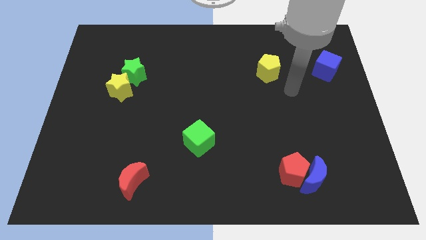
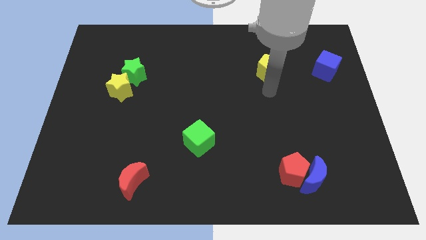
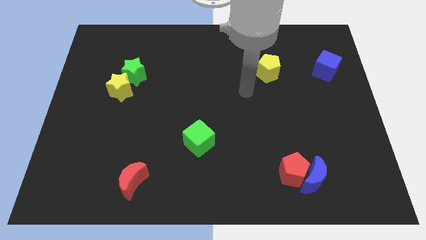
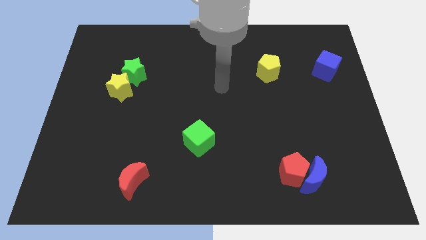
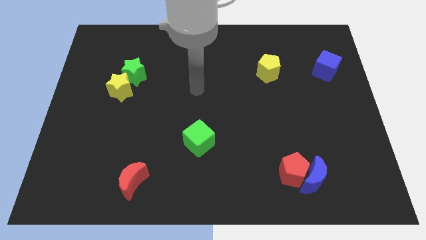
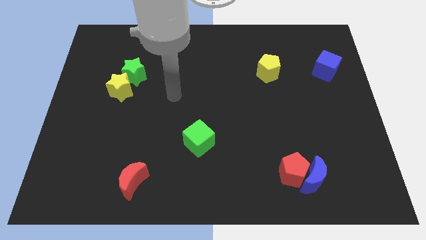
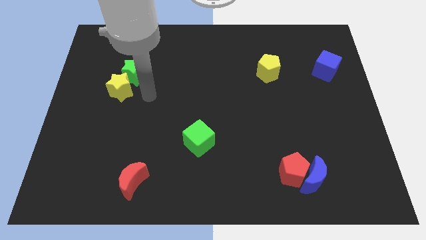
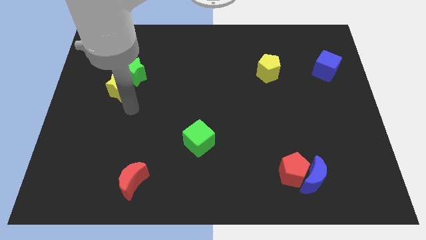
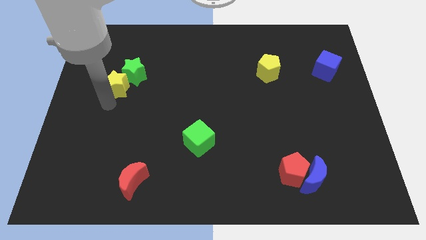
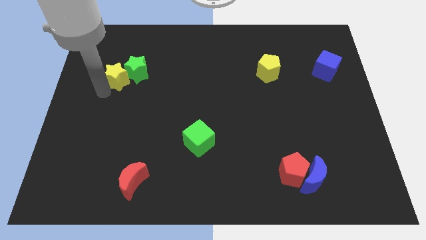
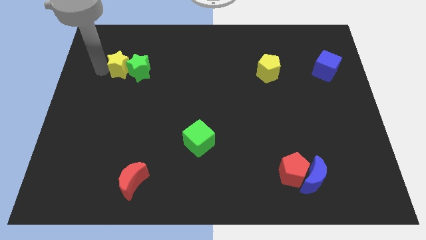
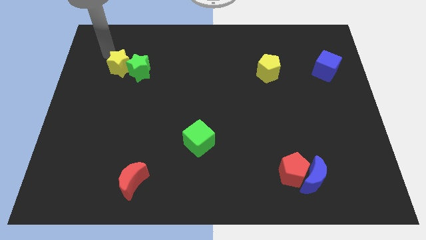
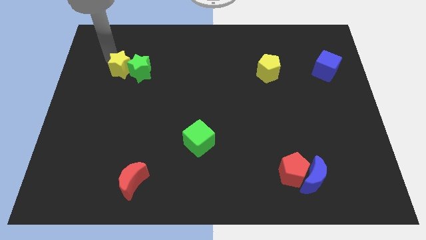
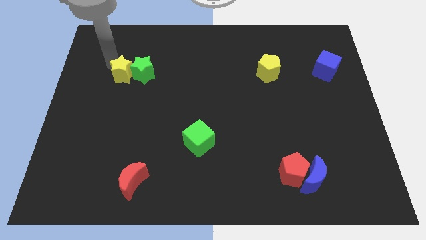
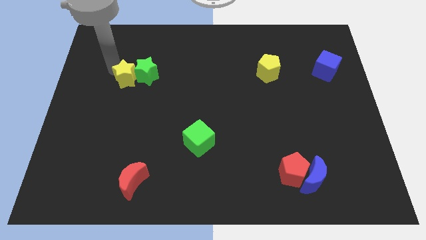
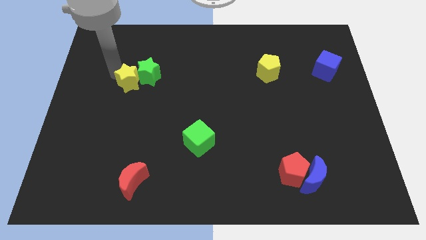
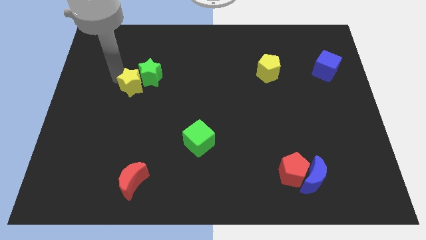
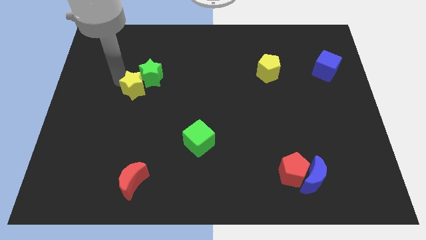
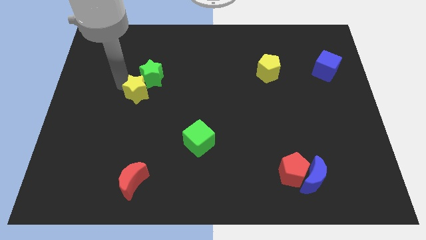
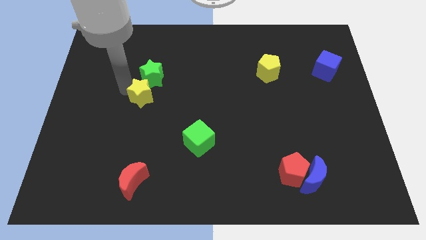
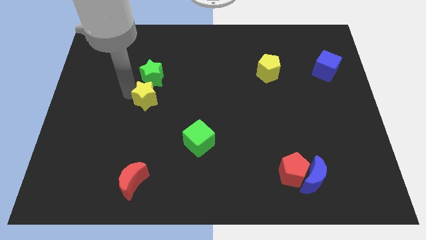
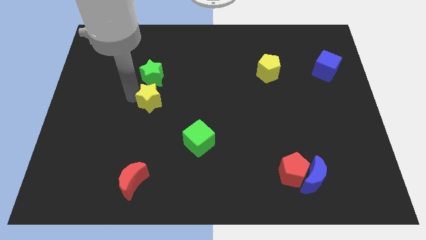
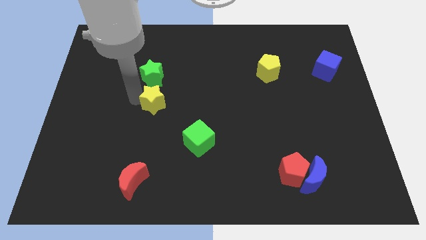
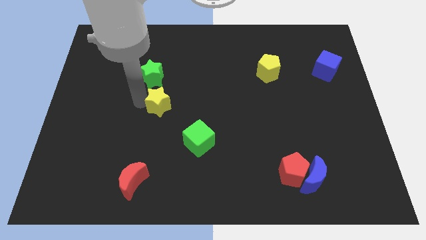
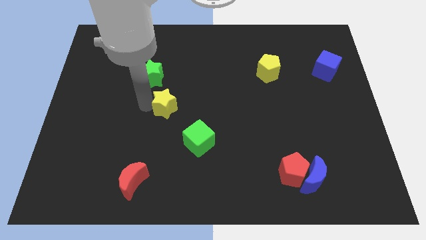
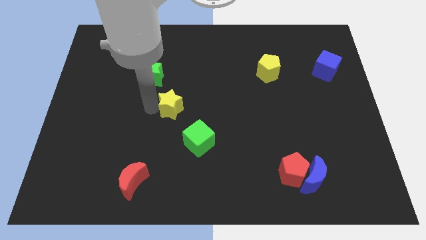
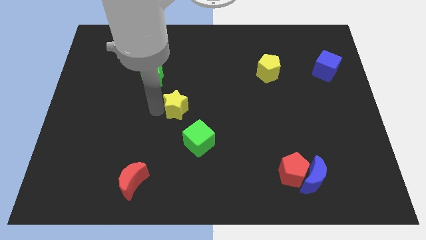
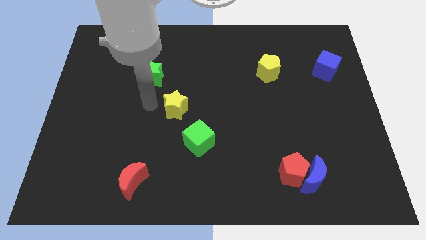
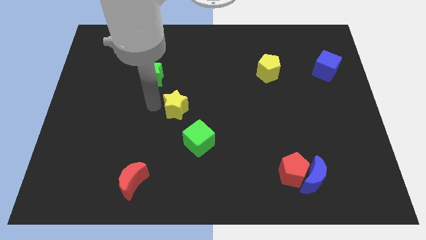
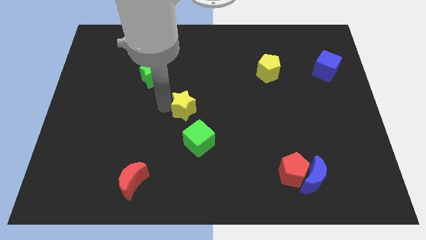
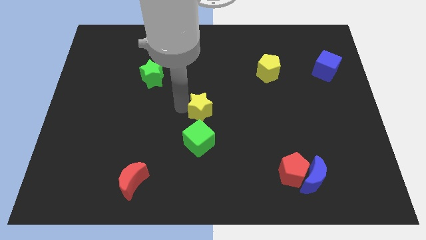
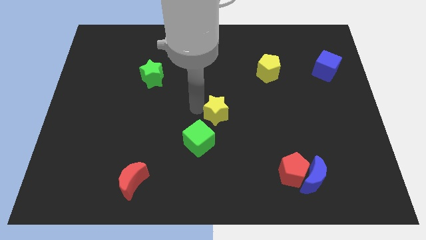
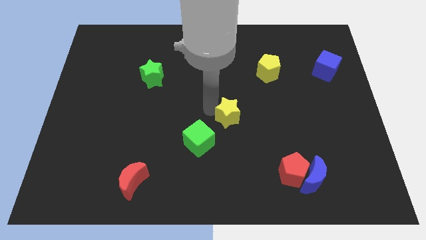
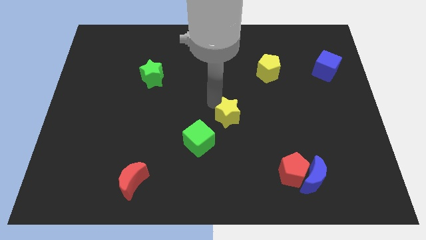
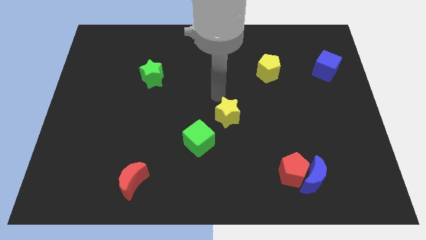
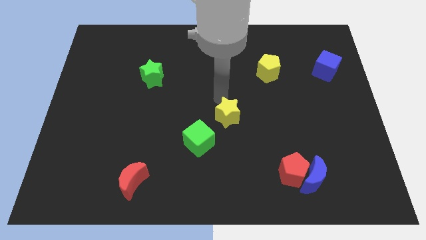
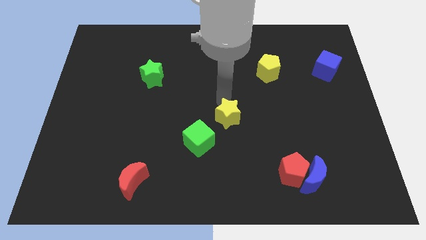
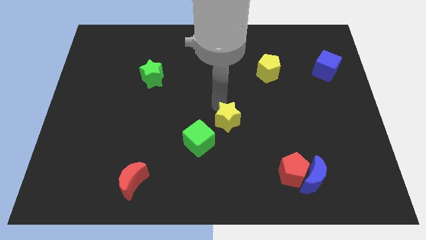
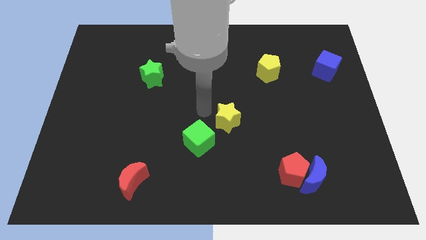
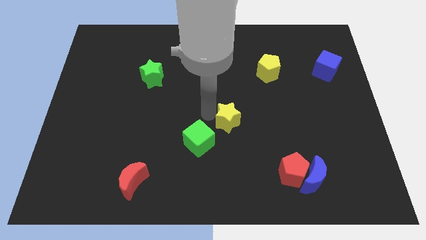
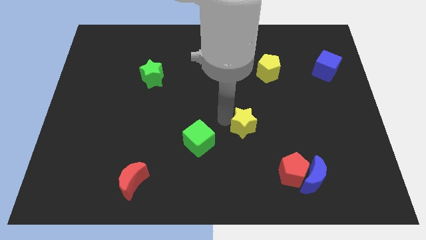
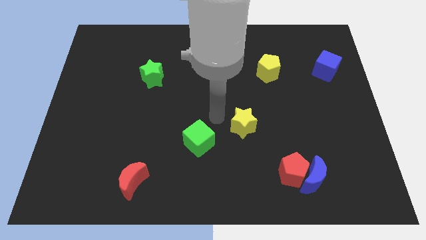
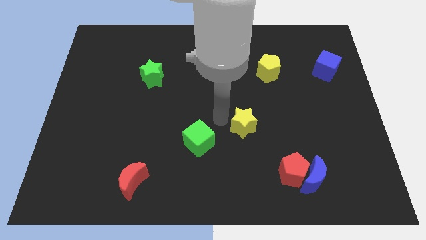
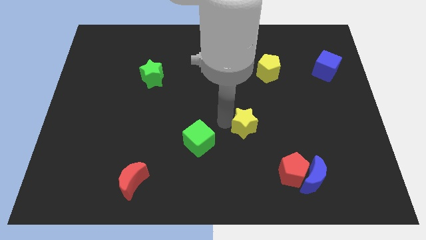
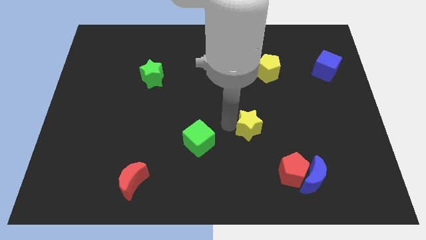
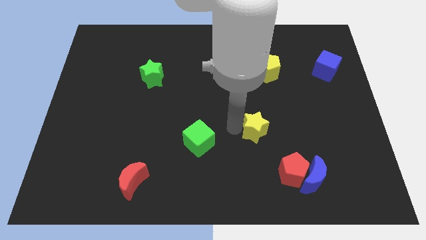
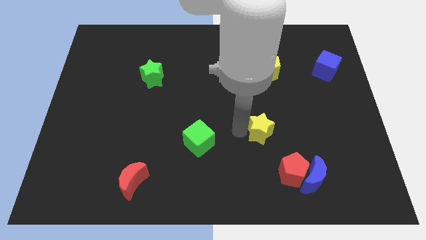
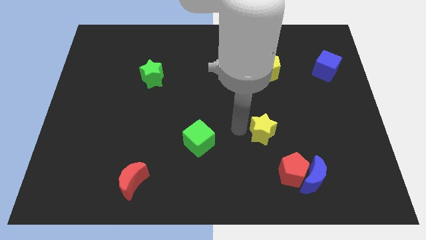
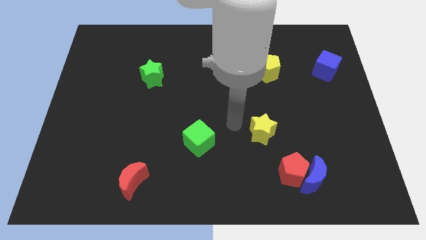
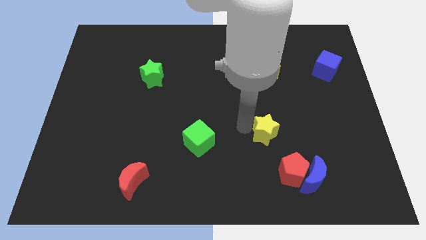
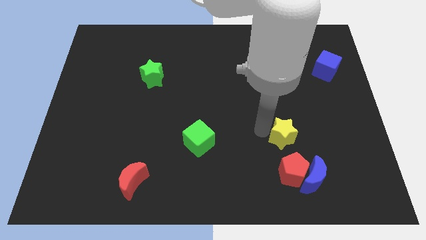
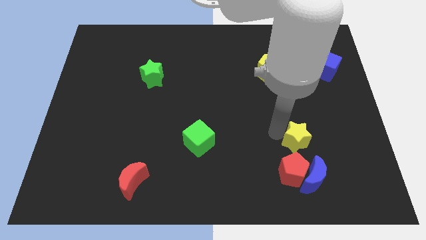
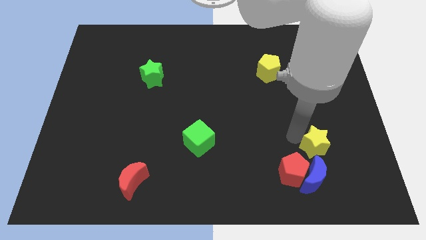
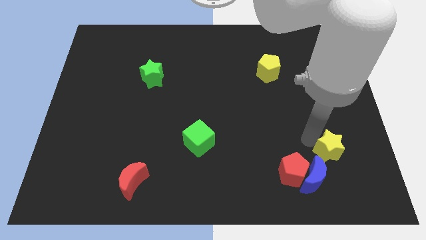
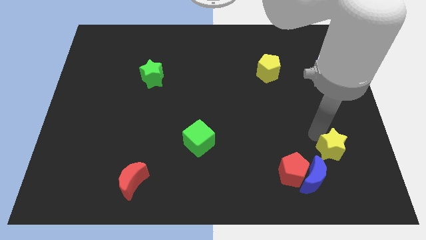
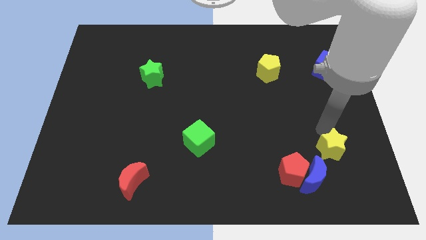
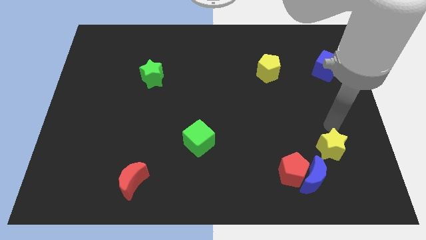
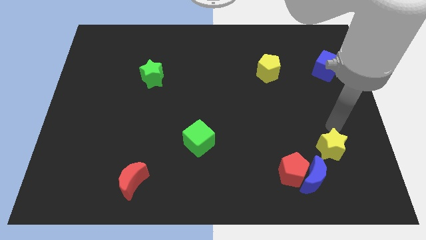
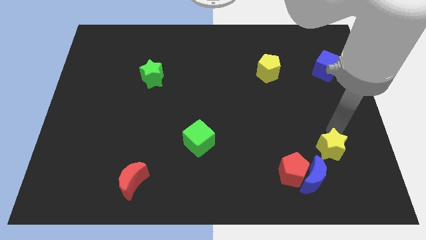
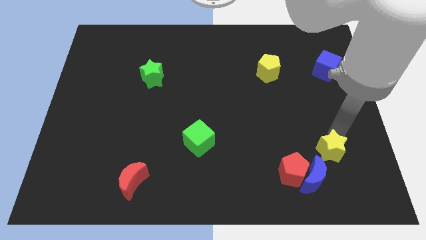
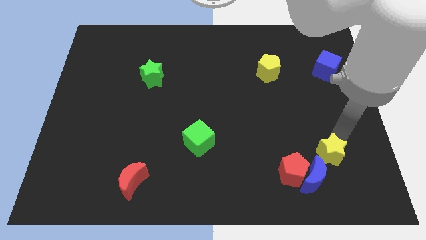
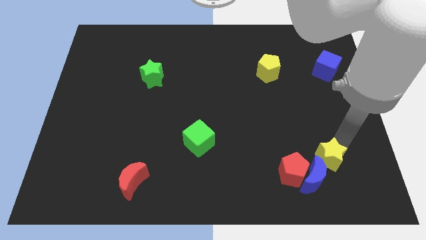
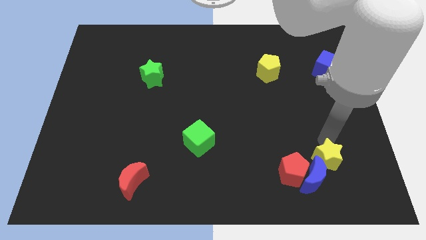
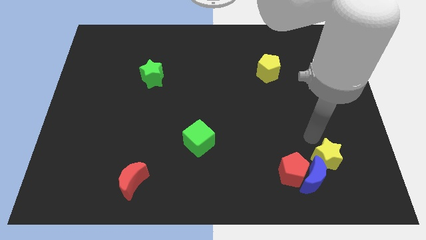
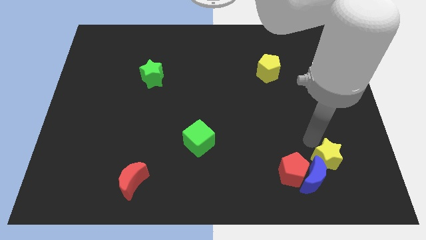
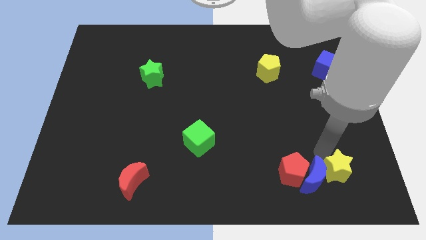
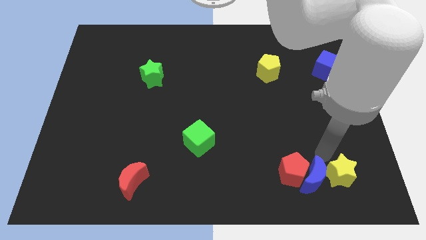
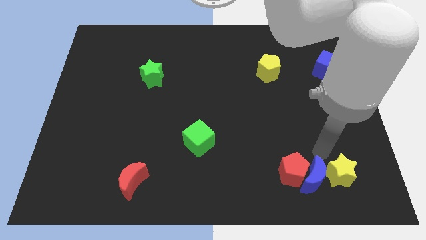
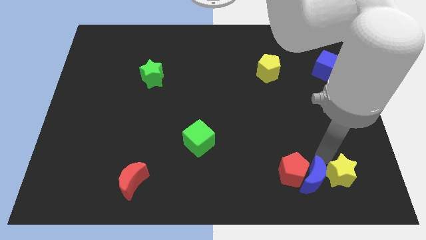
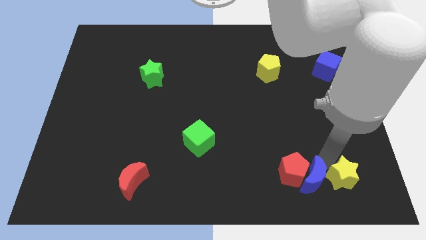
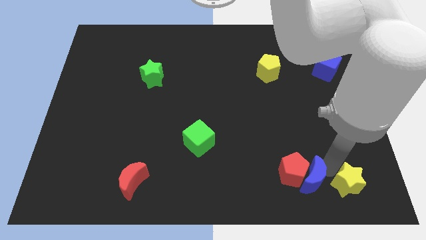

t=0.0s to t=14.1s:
put the yellow star to the lower right corner

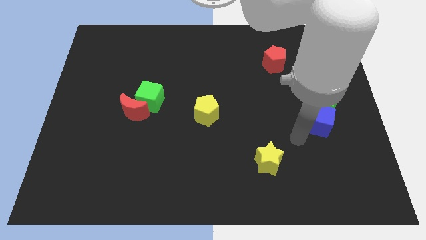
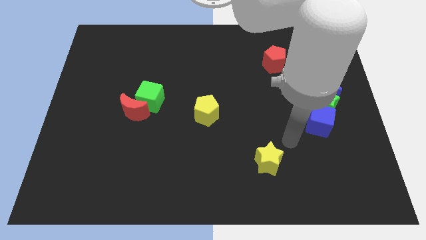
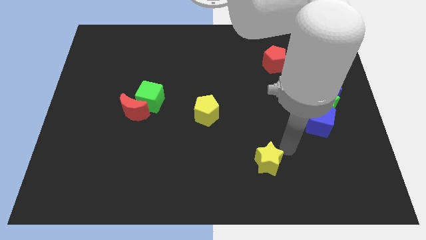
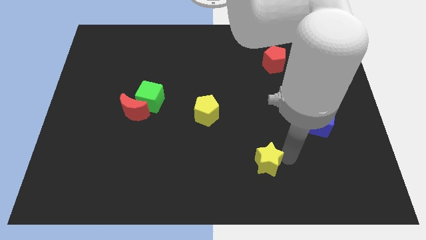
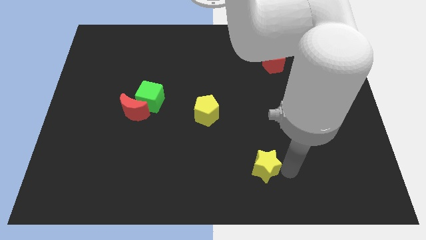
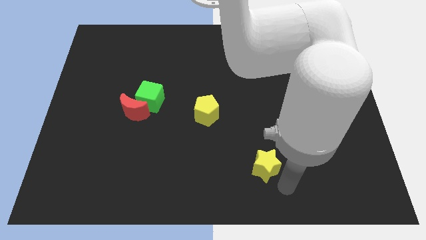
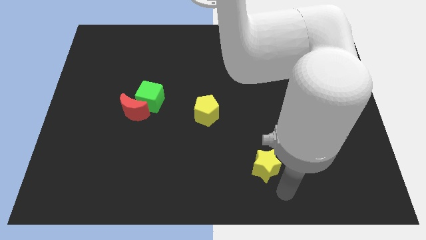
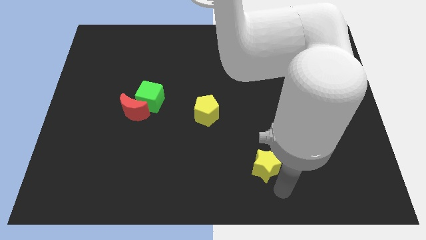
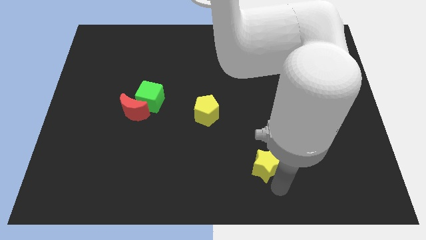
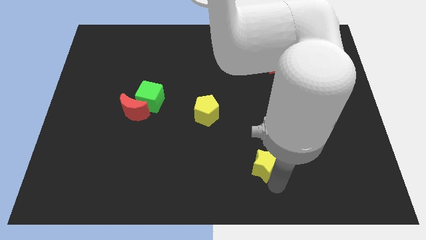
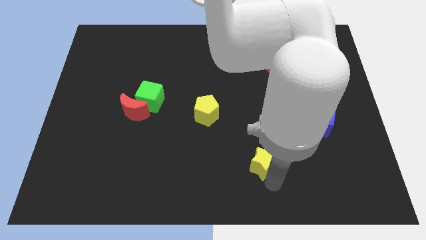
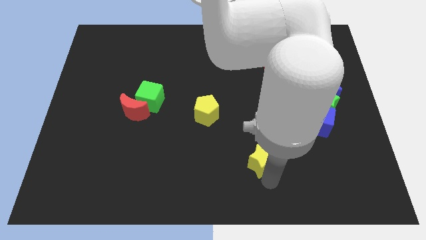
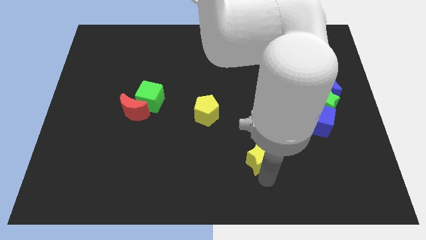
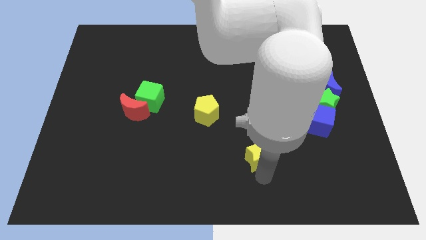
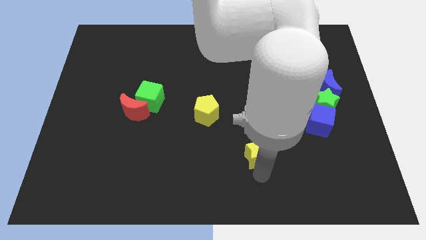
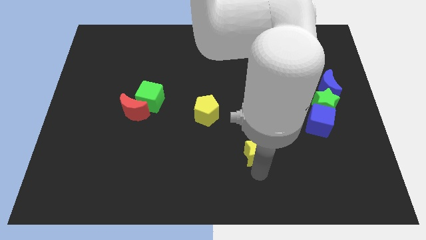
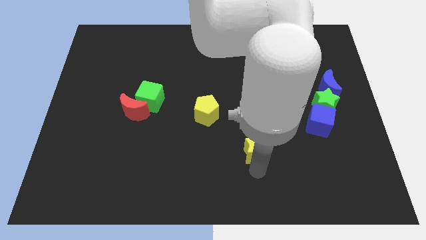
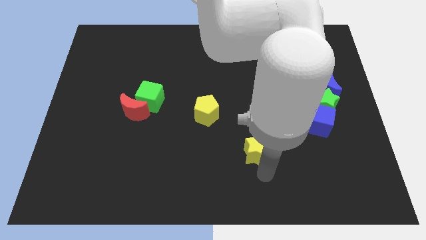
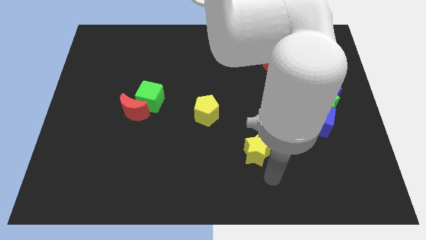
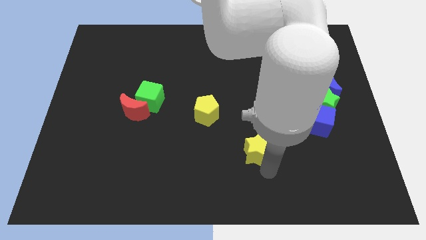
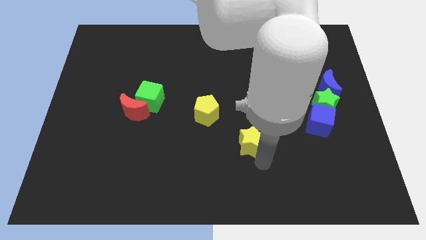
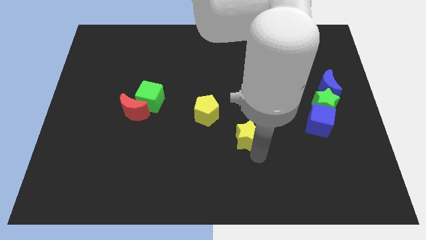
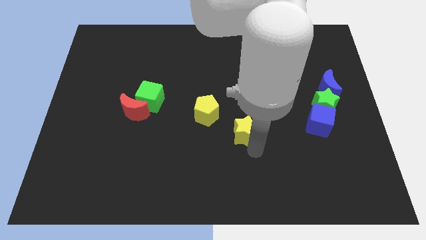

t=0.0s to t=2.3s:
push the yellow star to the middle
